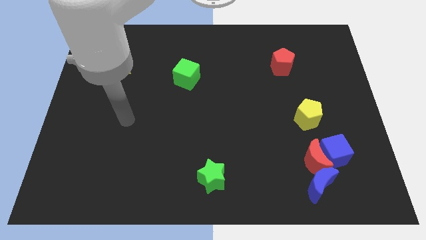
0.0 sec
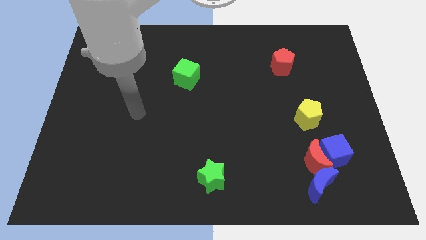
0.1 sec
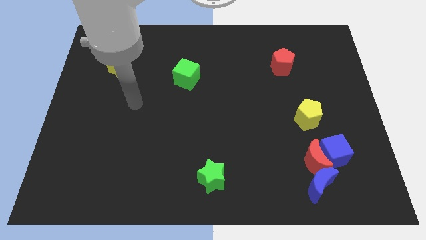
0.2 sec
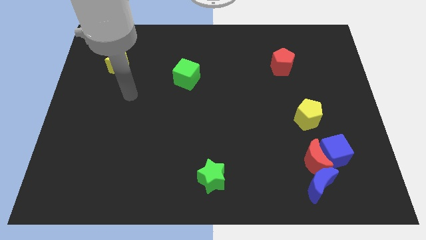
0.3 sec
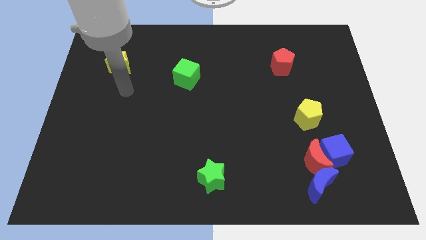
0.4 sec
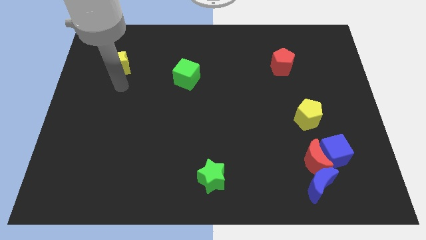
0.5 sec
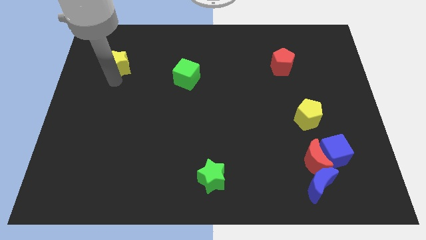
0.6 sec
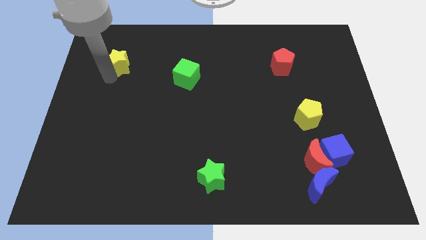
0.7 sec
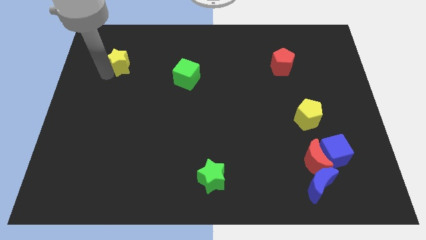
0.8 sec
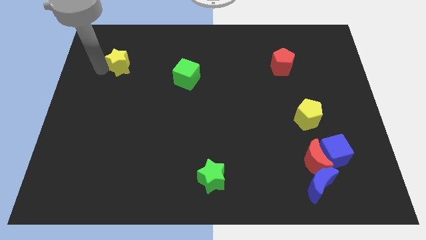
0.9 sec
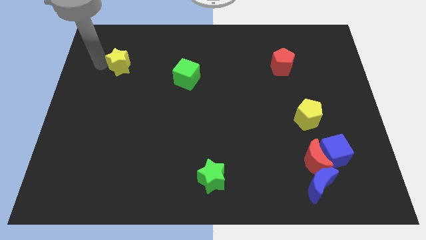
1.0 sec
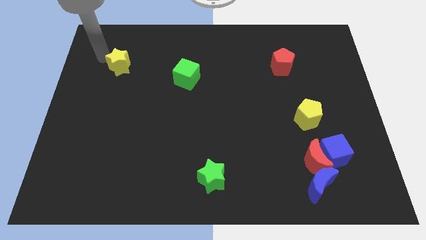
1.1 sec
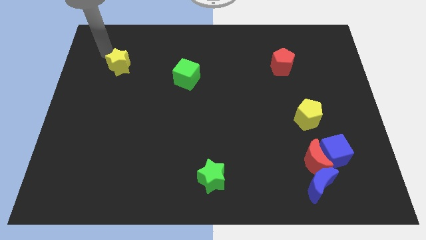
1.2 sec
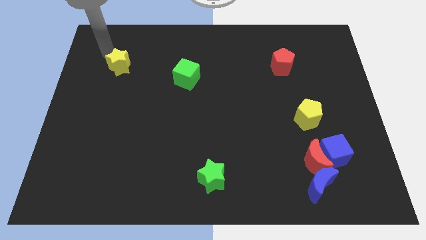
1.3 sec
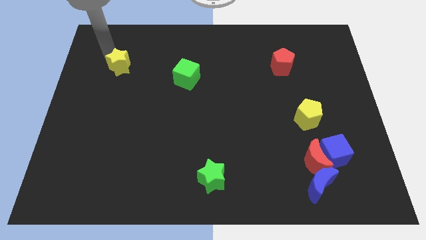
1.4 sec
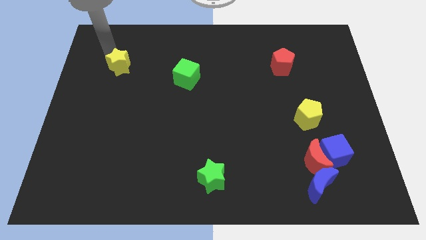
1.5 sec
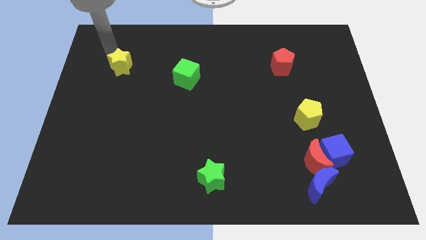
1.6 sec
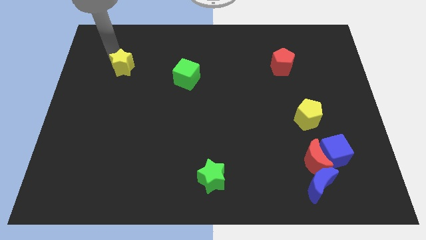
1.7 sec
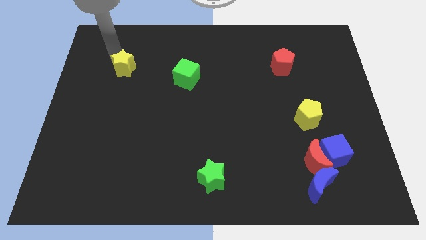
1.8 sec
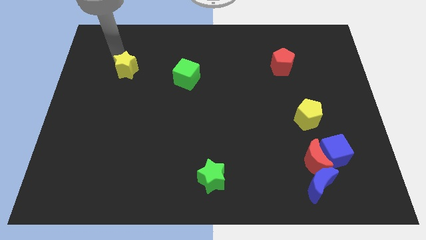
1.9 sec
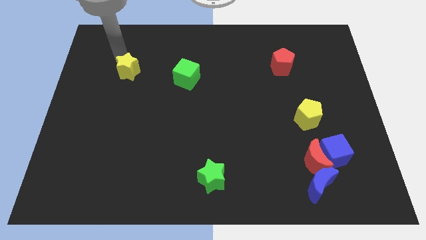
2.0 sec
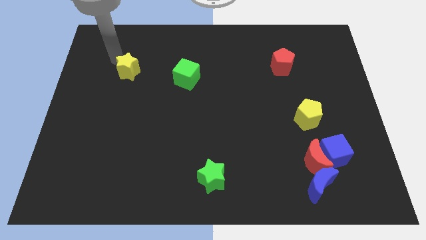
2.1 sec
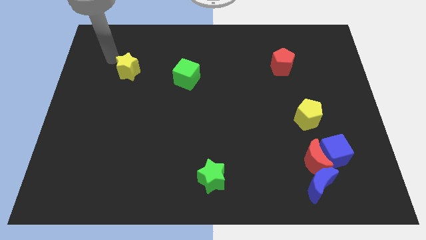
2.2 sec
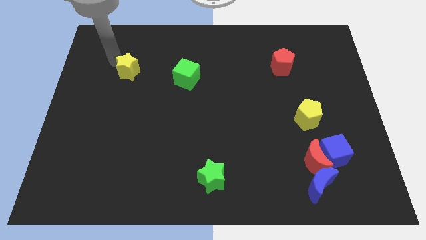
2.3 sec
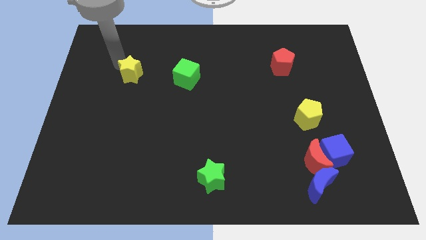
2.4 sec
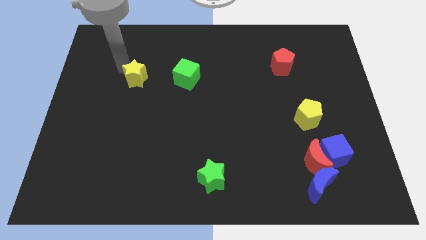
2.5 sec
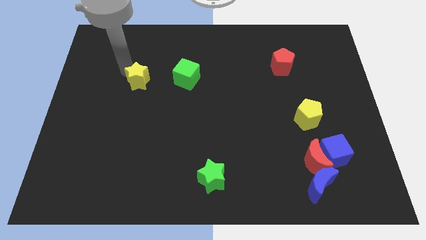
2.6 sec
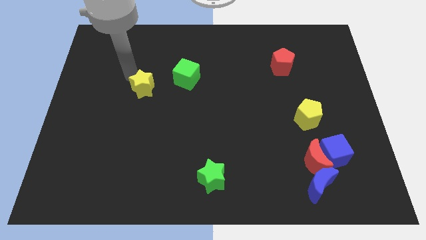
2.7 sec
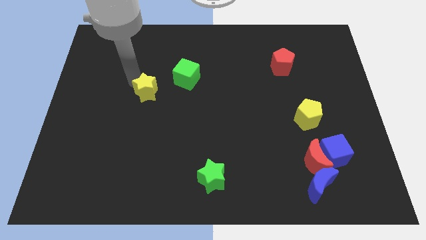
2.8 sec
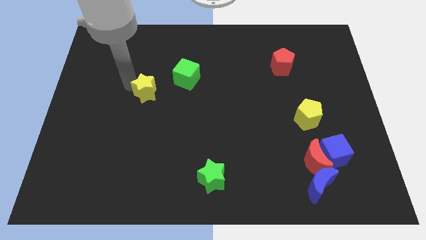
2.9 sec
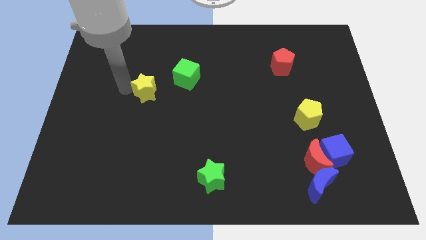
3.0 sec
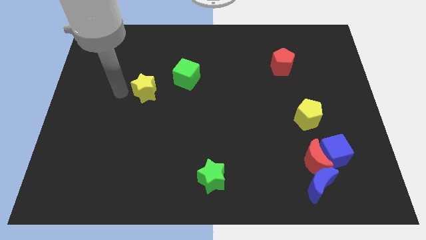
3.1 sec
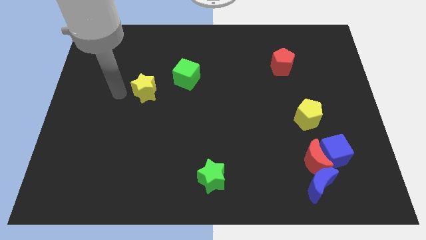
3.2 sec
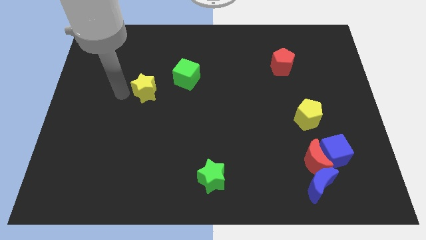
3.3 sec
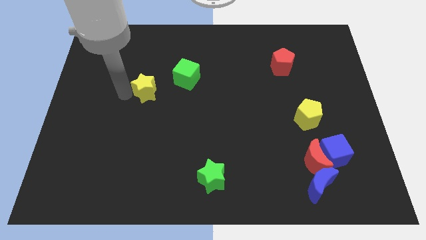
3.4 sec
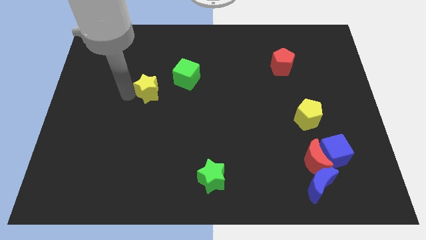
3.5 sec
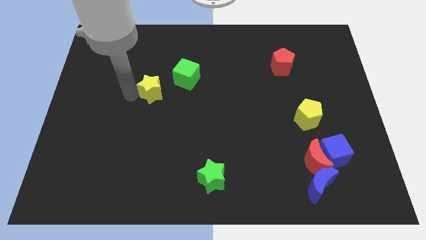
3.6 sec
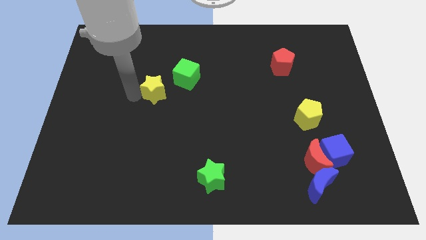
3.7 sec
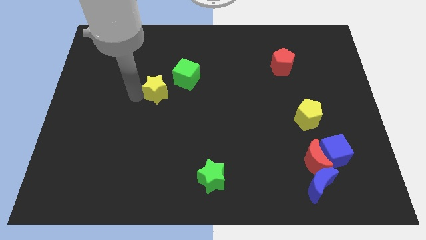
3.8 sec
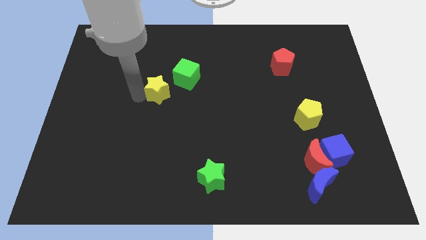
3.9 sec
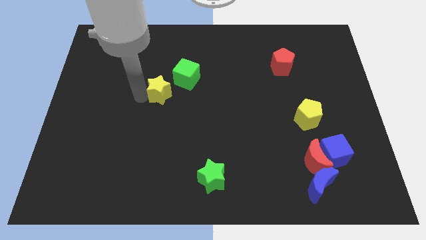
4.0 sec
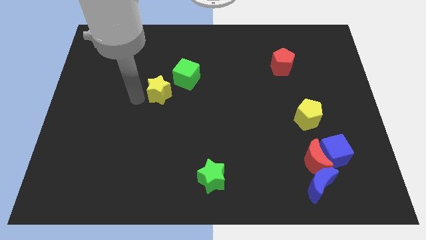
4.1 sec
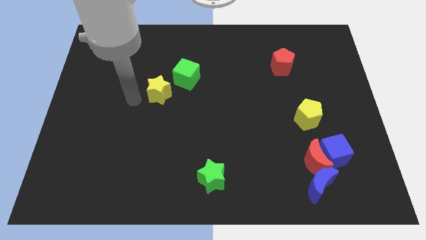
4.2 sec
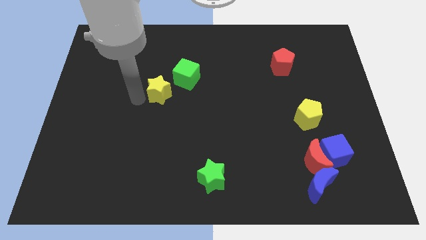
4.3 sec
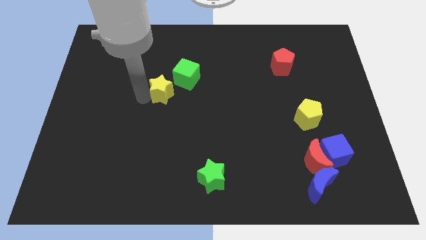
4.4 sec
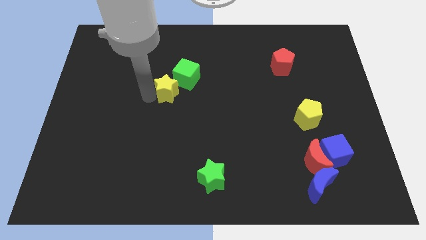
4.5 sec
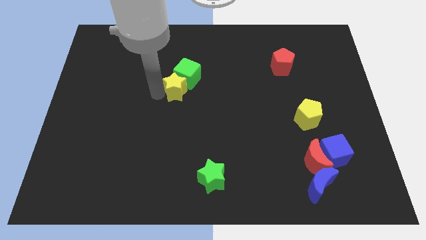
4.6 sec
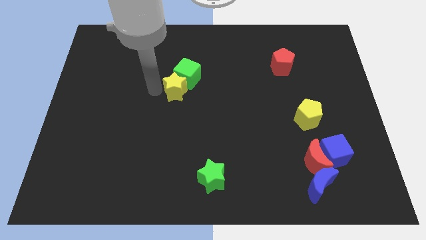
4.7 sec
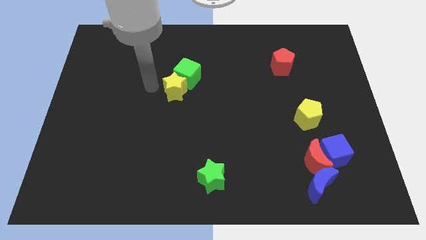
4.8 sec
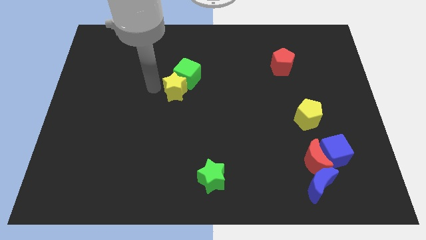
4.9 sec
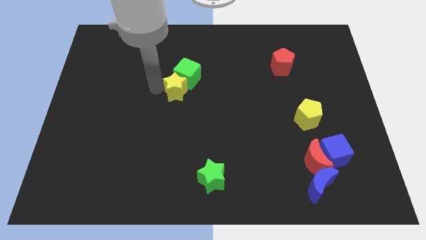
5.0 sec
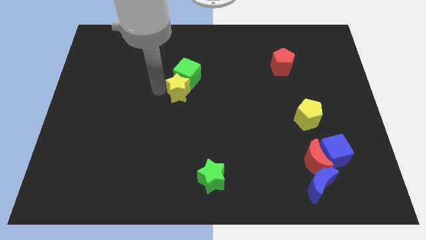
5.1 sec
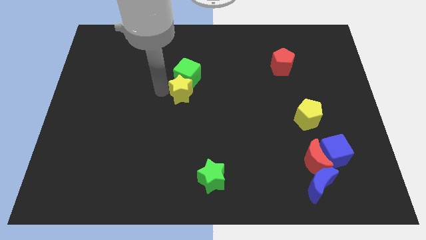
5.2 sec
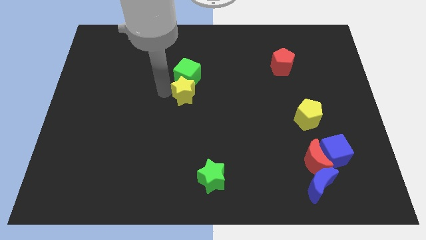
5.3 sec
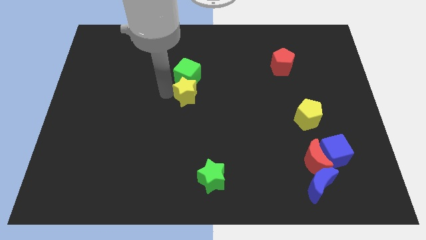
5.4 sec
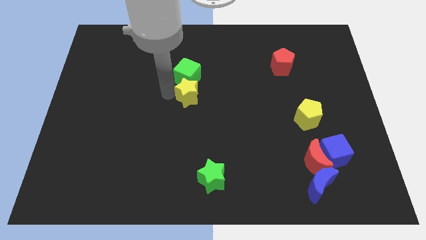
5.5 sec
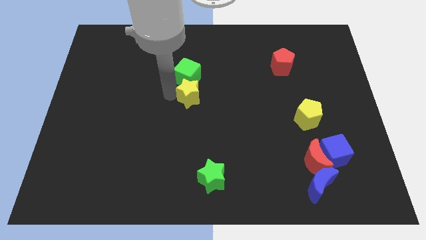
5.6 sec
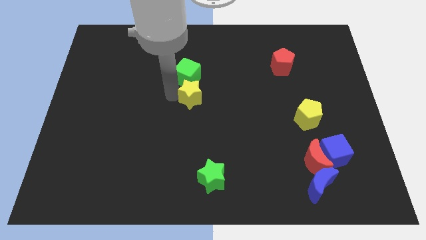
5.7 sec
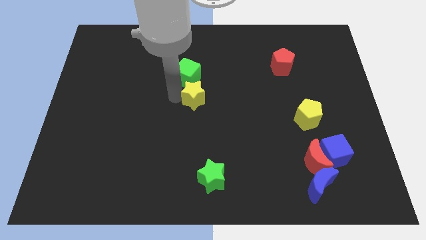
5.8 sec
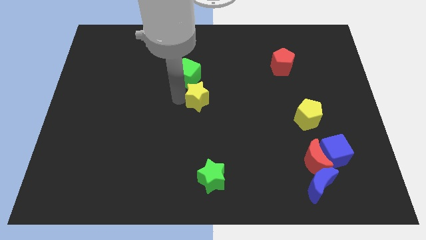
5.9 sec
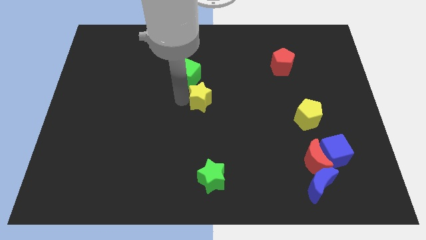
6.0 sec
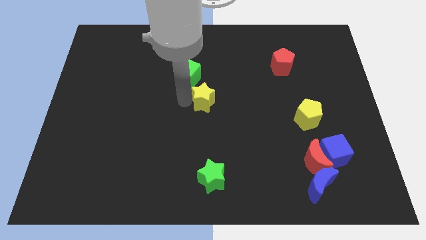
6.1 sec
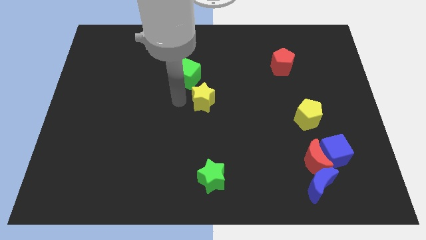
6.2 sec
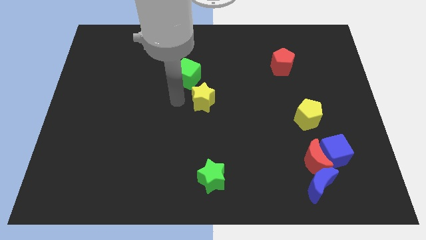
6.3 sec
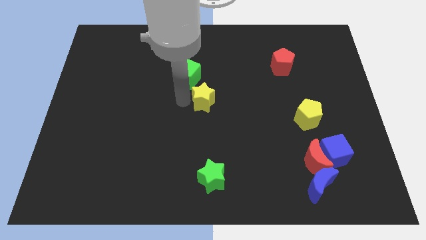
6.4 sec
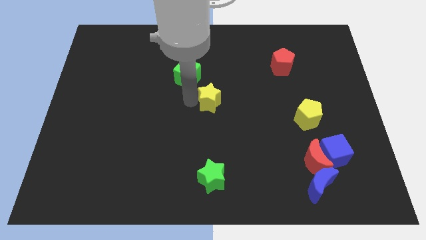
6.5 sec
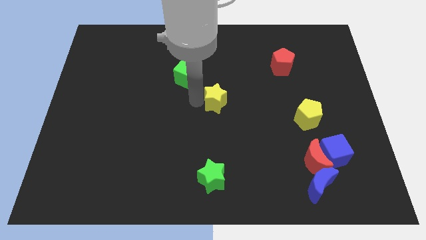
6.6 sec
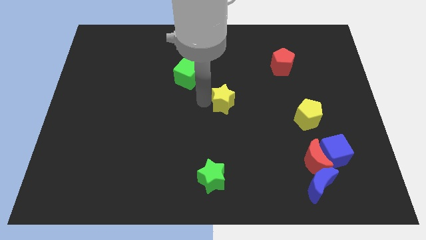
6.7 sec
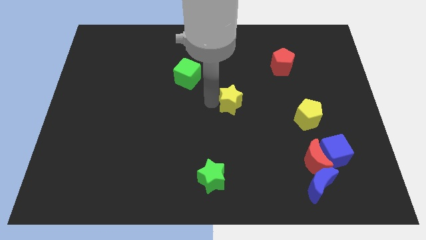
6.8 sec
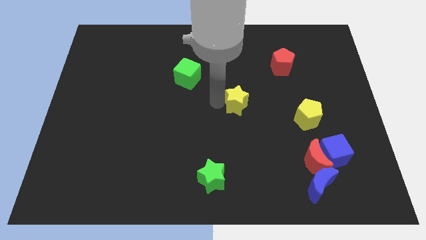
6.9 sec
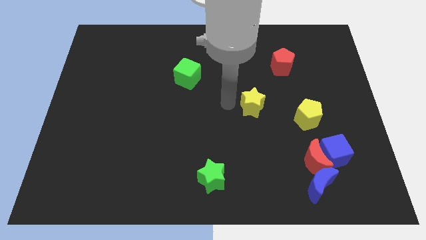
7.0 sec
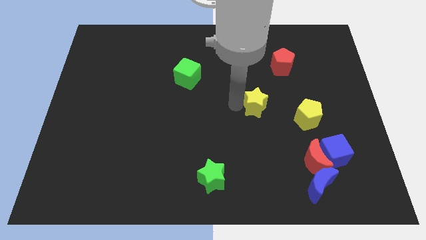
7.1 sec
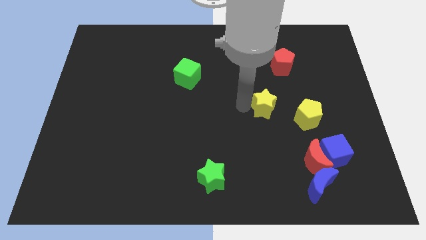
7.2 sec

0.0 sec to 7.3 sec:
put the yellow star to the top left of the yellow pentagon
